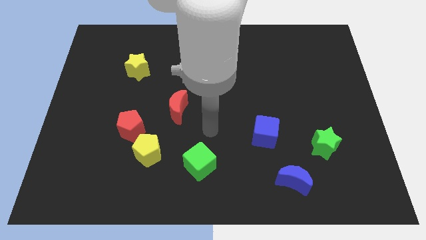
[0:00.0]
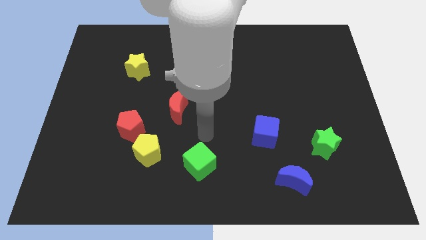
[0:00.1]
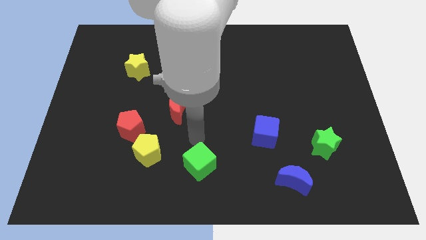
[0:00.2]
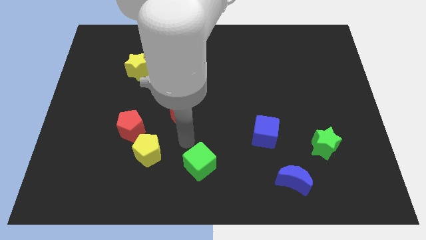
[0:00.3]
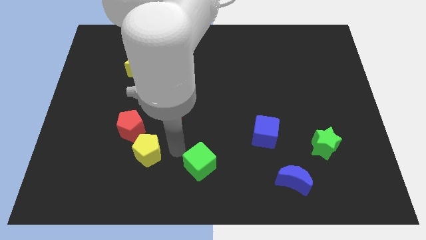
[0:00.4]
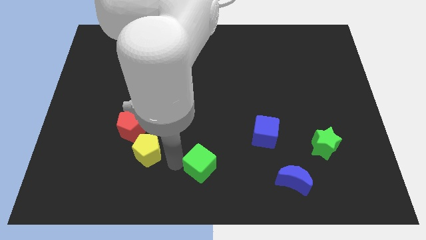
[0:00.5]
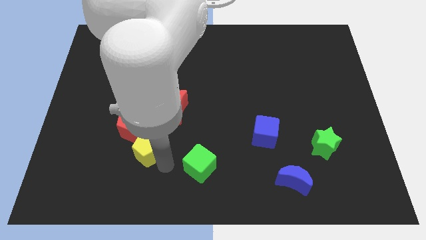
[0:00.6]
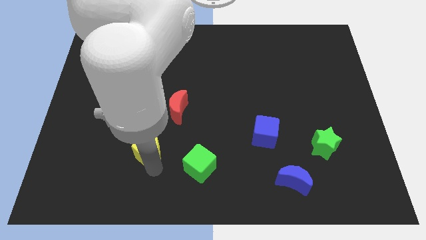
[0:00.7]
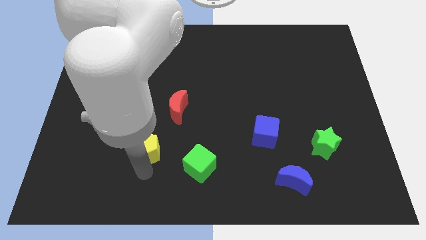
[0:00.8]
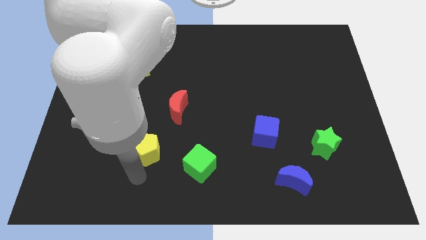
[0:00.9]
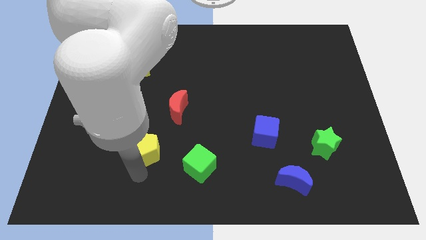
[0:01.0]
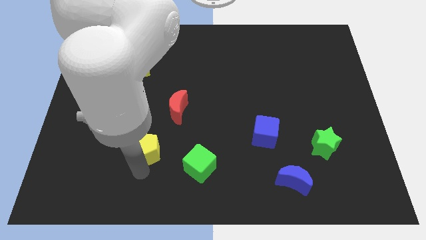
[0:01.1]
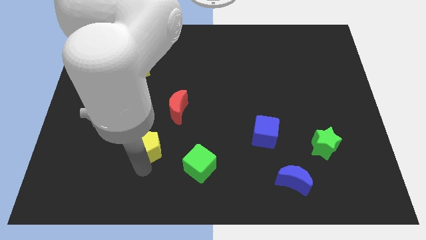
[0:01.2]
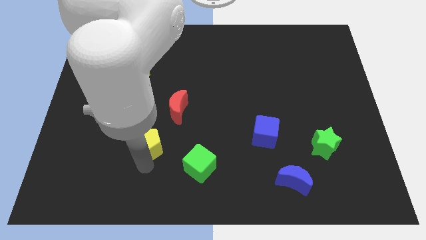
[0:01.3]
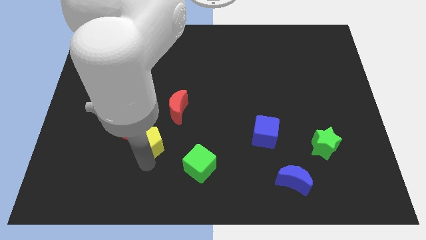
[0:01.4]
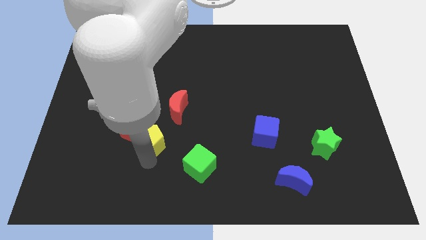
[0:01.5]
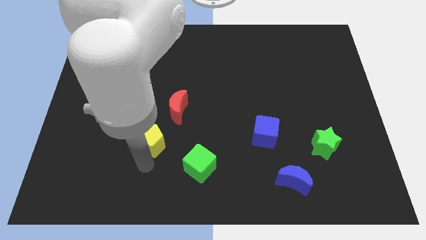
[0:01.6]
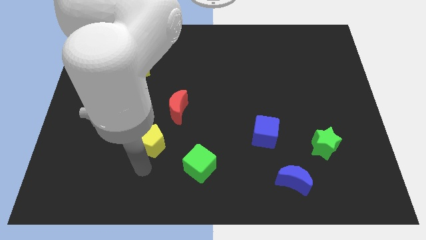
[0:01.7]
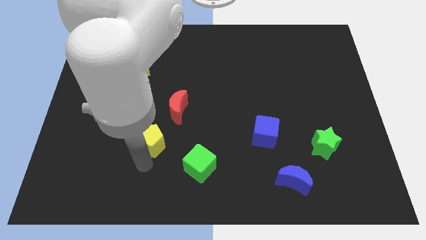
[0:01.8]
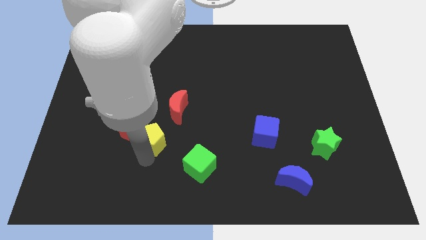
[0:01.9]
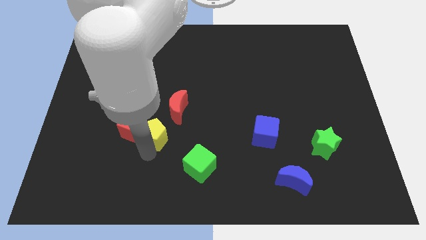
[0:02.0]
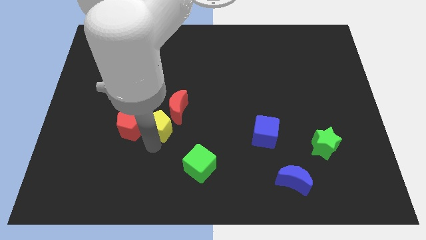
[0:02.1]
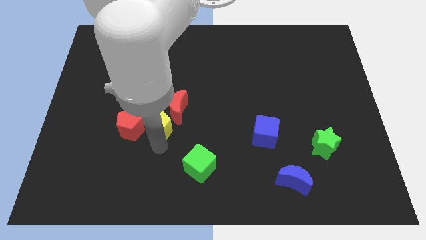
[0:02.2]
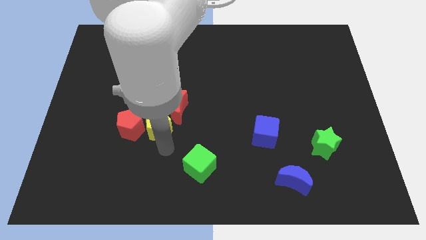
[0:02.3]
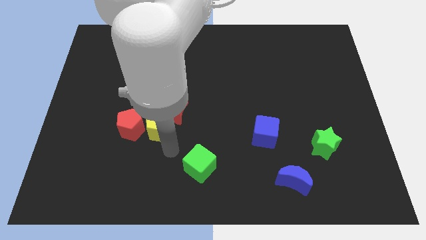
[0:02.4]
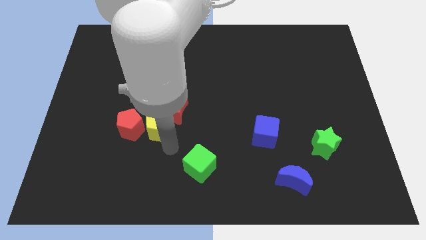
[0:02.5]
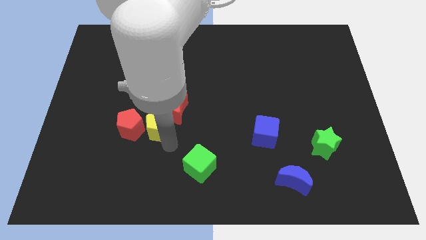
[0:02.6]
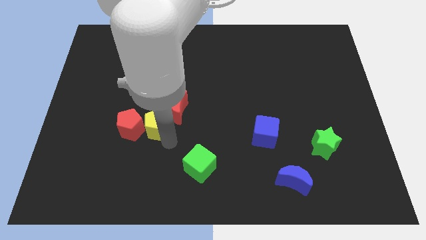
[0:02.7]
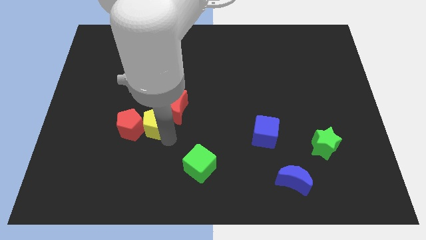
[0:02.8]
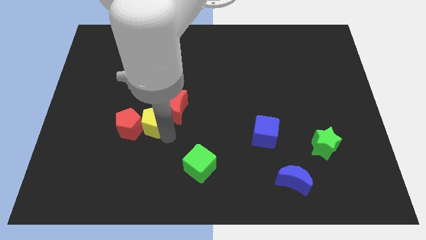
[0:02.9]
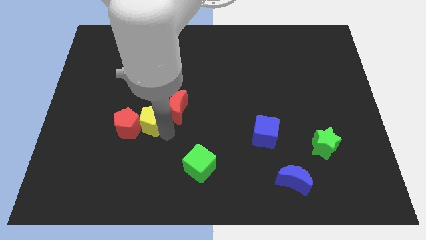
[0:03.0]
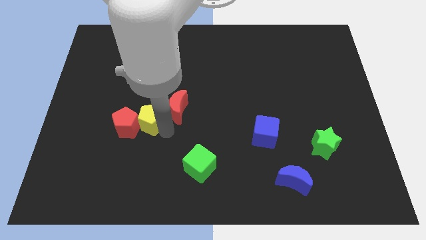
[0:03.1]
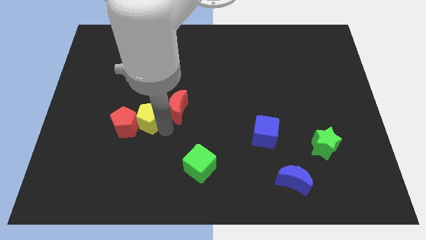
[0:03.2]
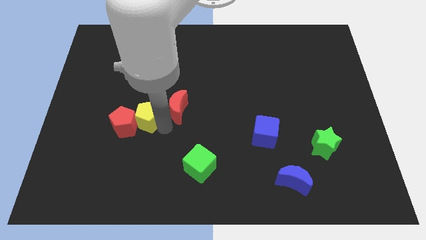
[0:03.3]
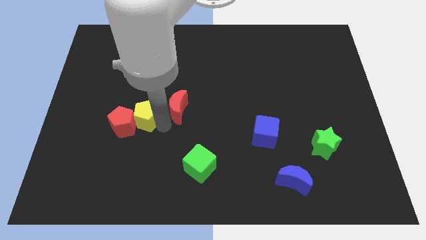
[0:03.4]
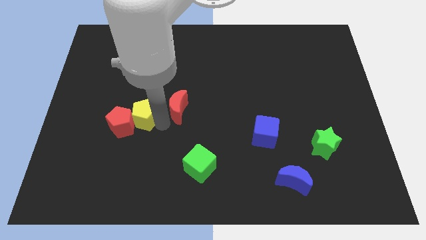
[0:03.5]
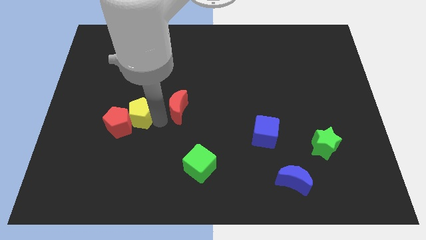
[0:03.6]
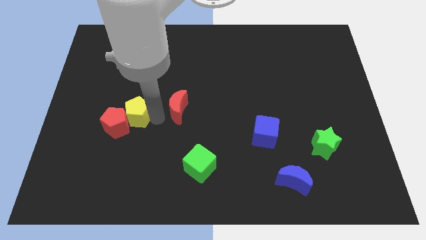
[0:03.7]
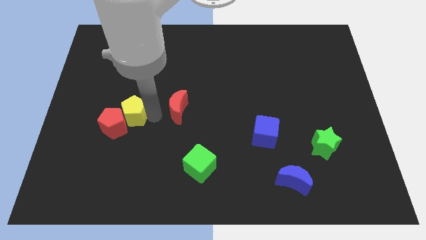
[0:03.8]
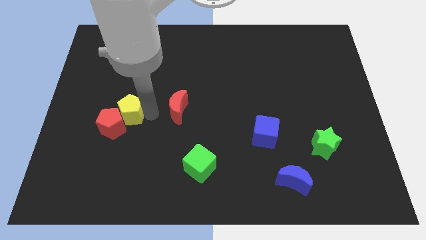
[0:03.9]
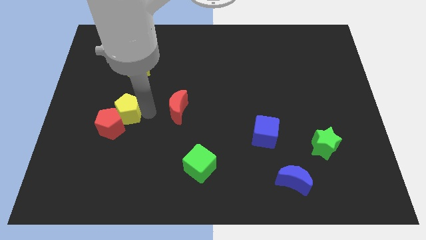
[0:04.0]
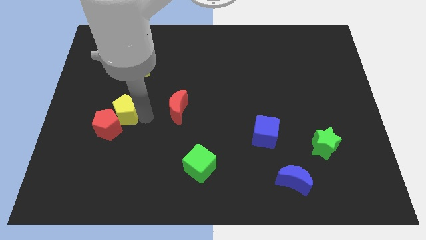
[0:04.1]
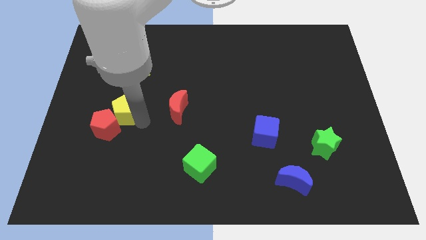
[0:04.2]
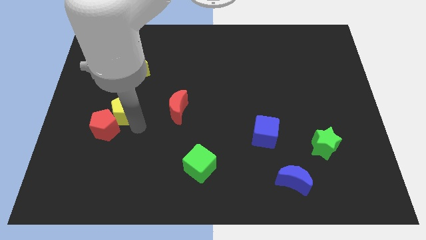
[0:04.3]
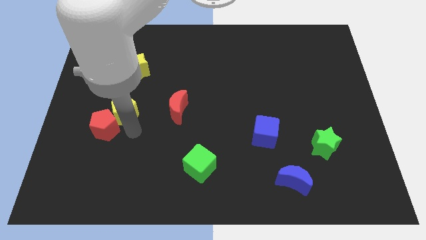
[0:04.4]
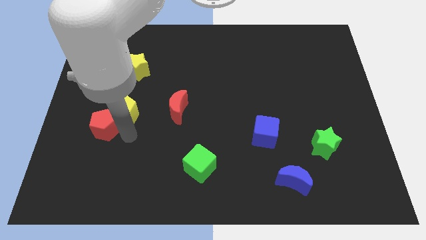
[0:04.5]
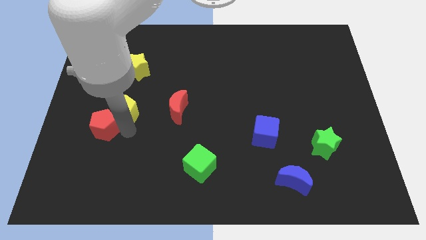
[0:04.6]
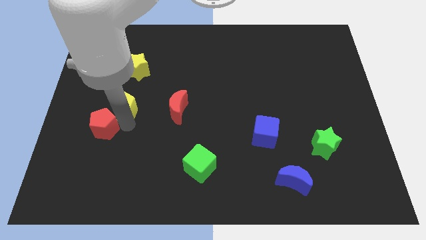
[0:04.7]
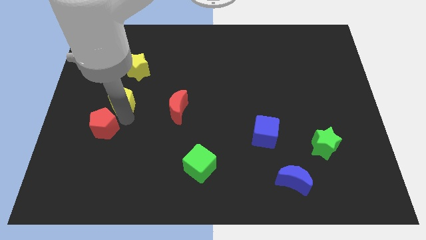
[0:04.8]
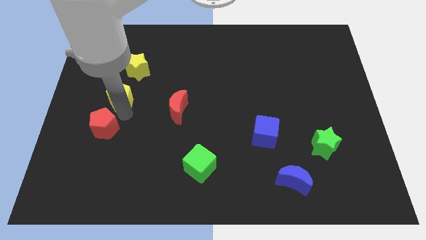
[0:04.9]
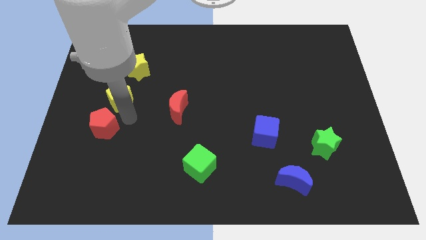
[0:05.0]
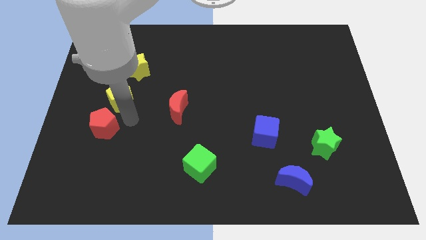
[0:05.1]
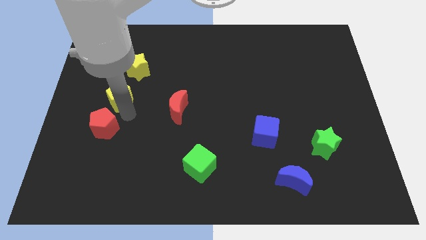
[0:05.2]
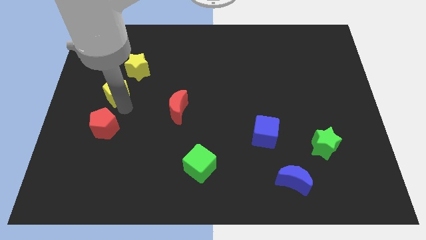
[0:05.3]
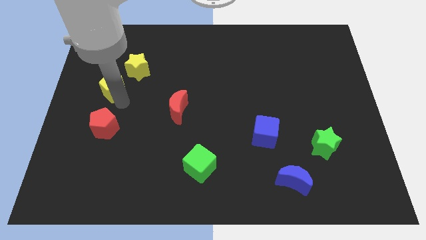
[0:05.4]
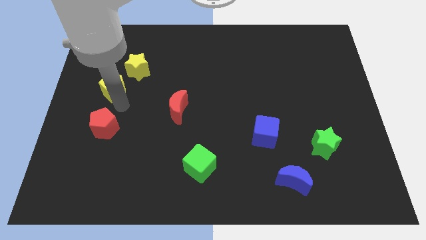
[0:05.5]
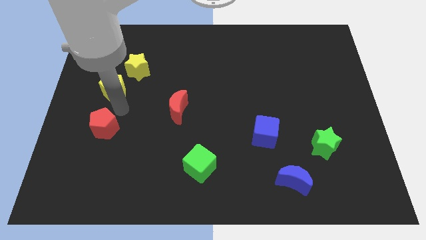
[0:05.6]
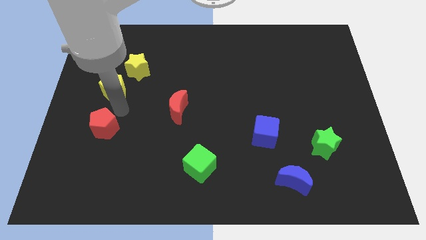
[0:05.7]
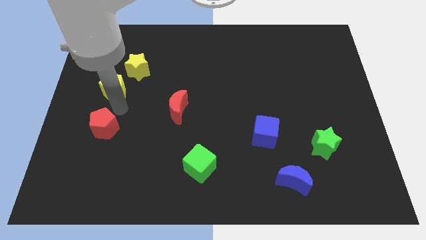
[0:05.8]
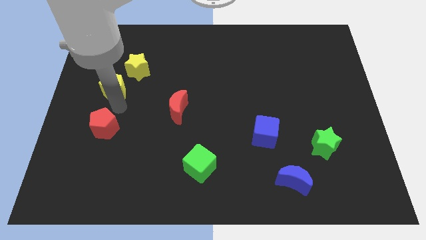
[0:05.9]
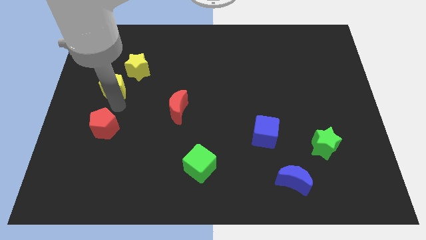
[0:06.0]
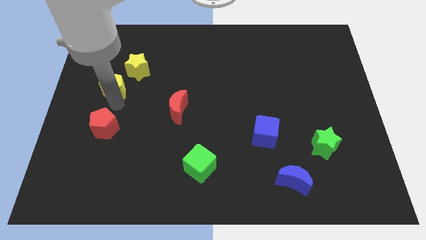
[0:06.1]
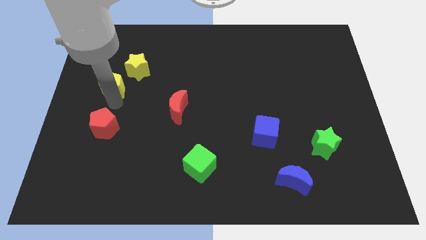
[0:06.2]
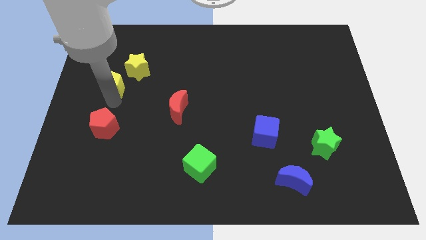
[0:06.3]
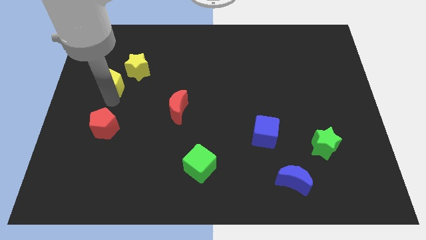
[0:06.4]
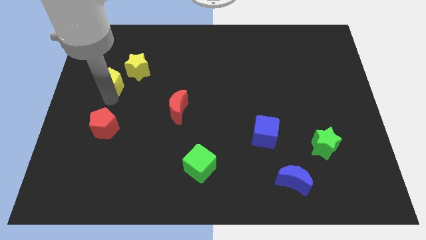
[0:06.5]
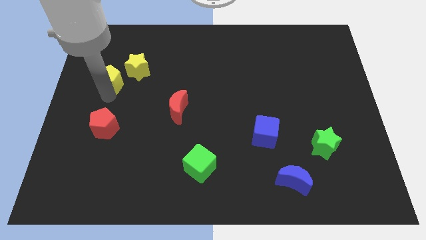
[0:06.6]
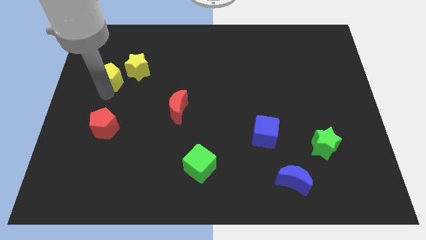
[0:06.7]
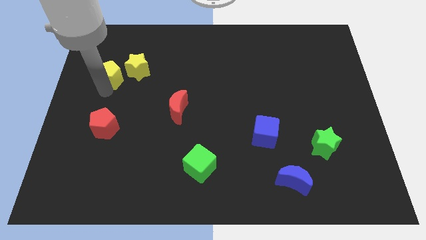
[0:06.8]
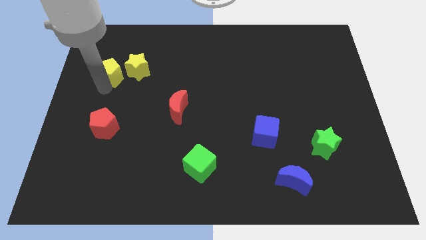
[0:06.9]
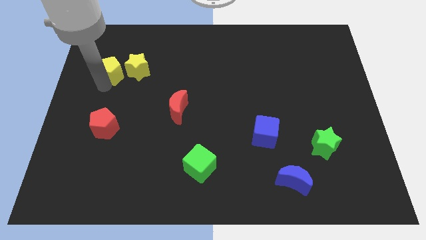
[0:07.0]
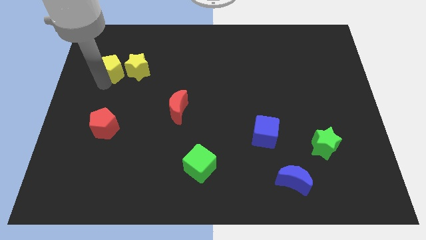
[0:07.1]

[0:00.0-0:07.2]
put the yellow pentagon diagonally up and to the left of the yellow star
